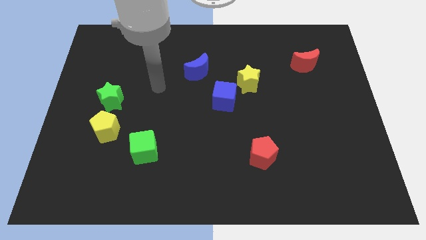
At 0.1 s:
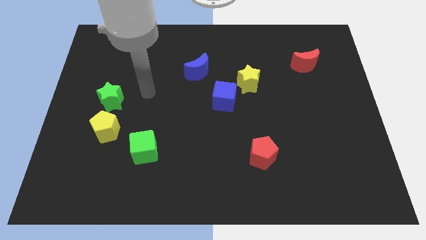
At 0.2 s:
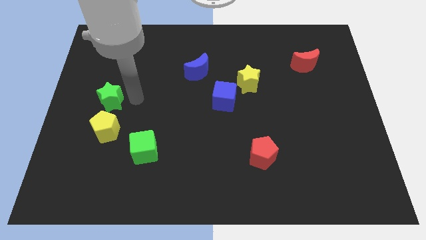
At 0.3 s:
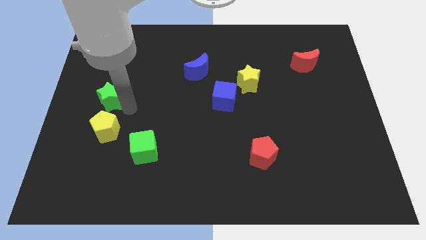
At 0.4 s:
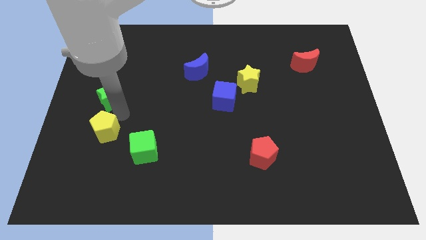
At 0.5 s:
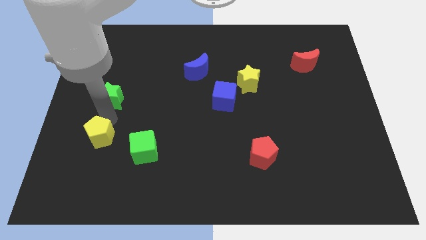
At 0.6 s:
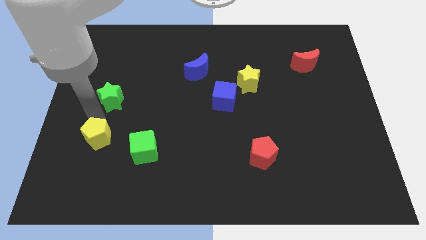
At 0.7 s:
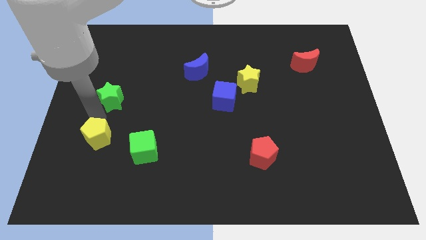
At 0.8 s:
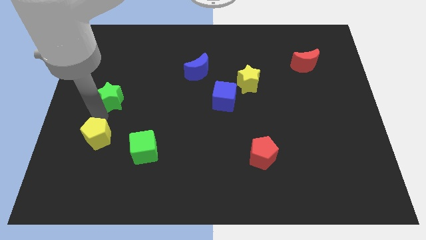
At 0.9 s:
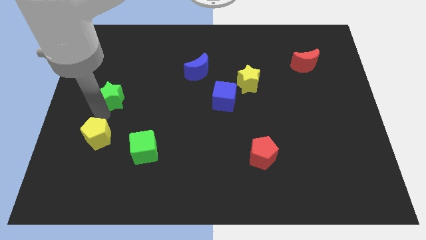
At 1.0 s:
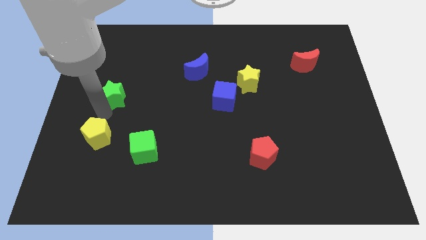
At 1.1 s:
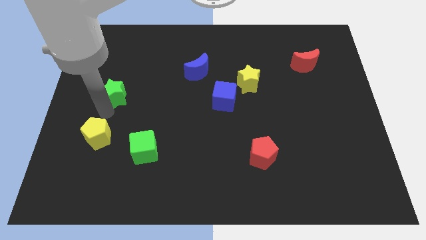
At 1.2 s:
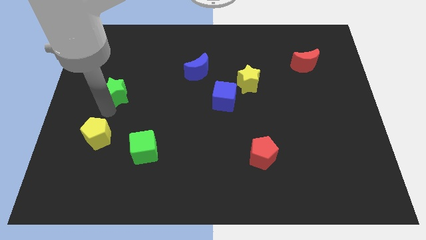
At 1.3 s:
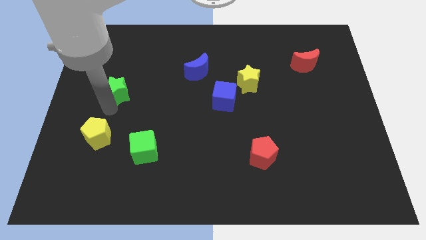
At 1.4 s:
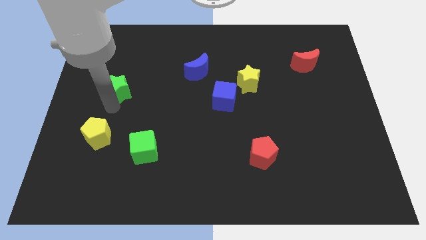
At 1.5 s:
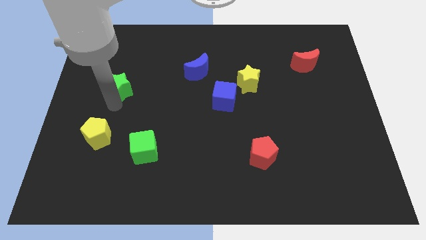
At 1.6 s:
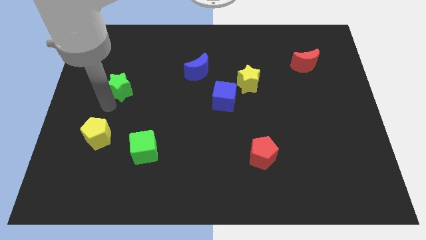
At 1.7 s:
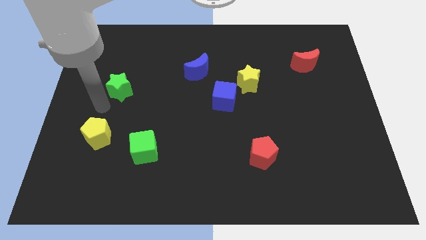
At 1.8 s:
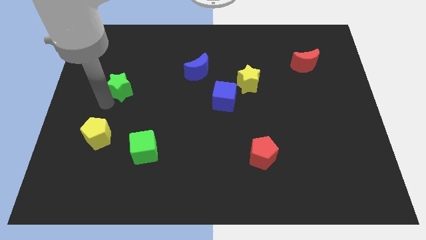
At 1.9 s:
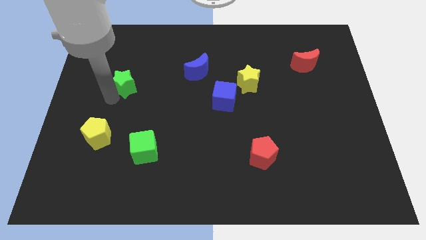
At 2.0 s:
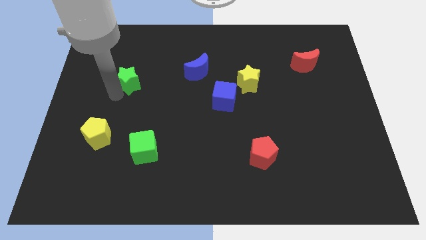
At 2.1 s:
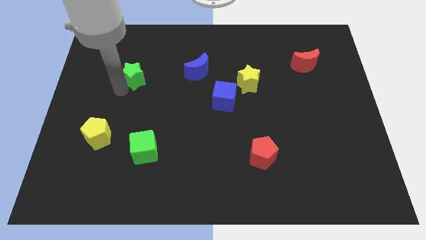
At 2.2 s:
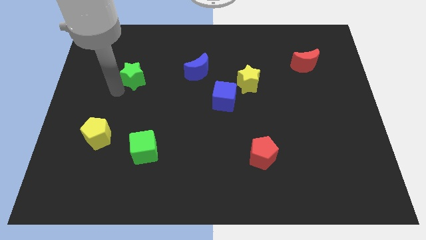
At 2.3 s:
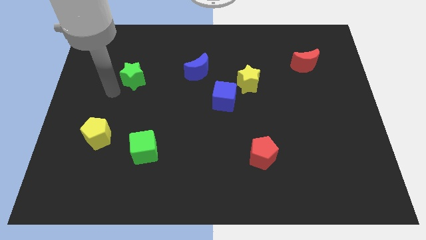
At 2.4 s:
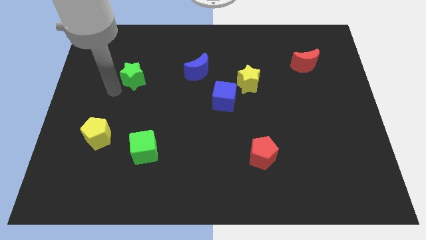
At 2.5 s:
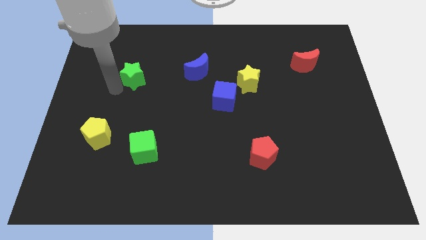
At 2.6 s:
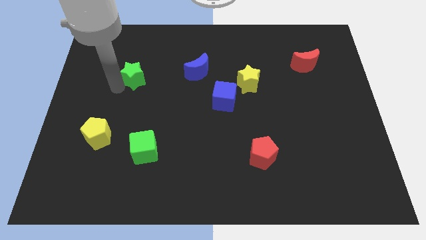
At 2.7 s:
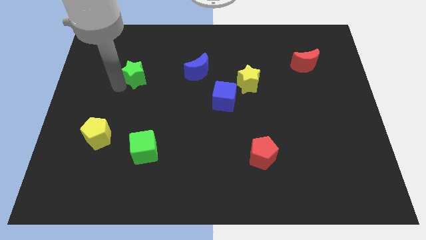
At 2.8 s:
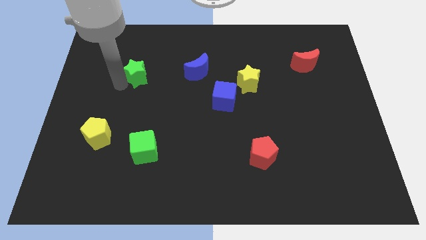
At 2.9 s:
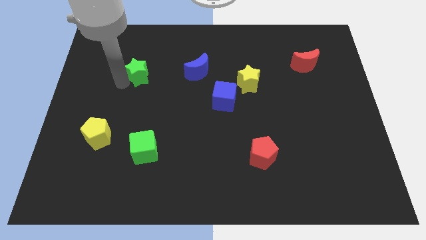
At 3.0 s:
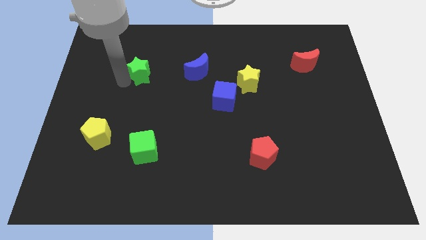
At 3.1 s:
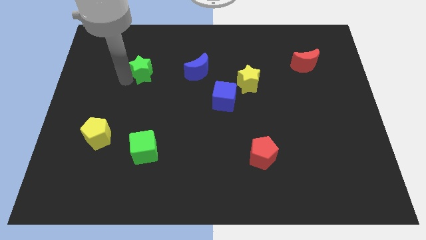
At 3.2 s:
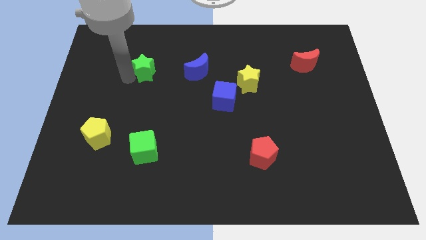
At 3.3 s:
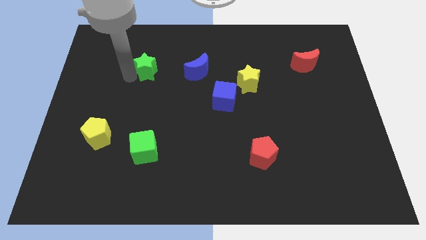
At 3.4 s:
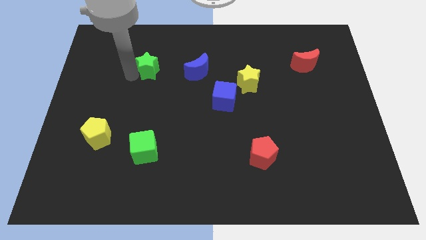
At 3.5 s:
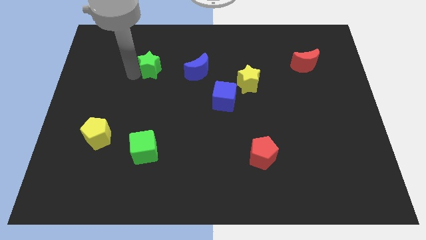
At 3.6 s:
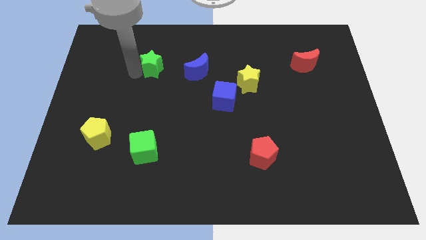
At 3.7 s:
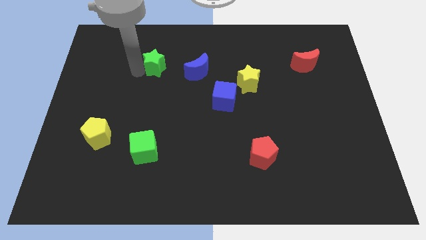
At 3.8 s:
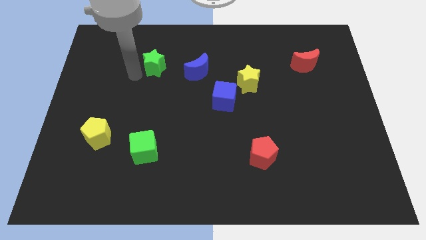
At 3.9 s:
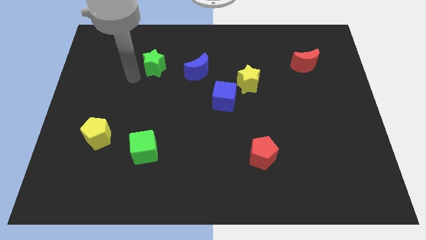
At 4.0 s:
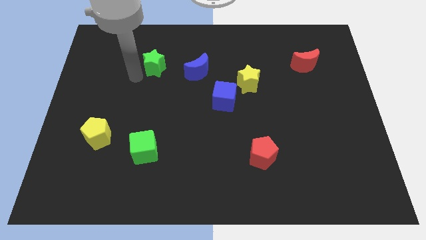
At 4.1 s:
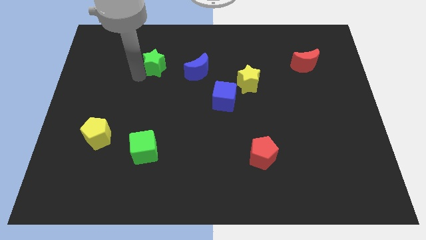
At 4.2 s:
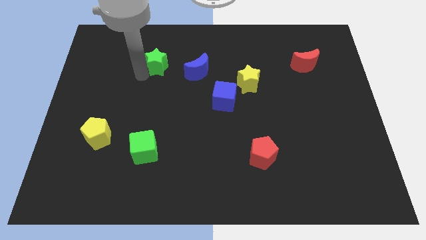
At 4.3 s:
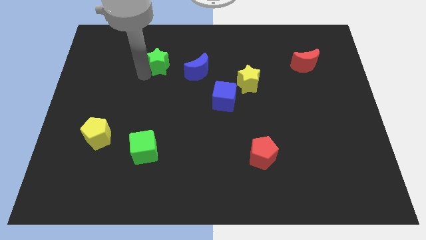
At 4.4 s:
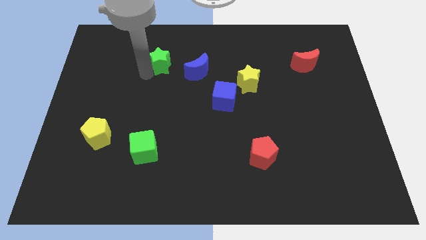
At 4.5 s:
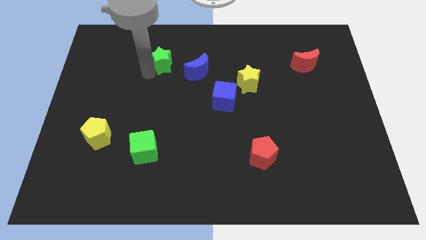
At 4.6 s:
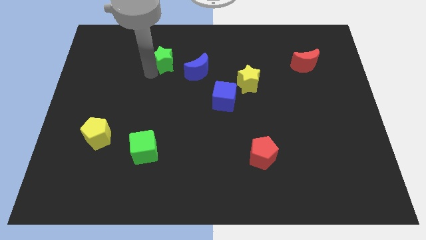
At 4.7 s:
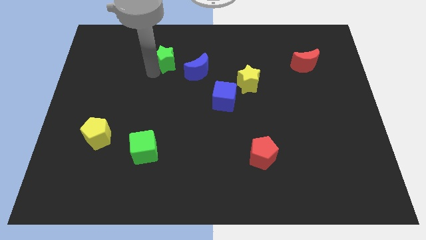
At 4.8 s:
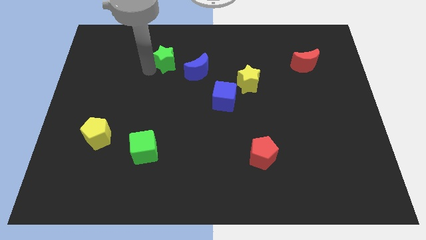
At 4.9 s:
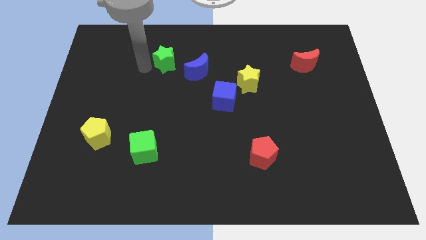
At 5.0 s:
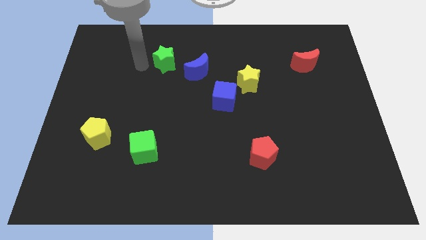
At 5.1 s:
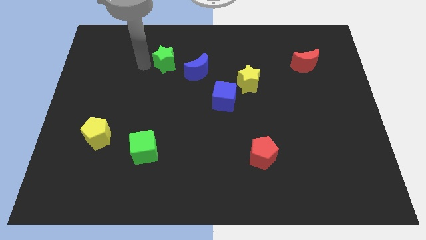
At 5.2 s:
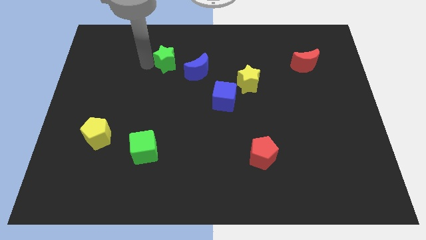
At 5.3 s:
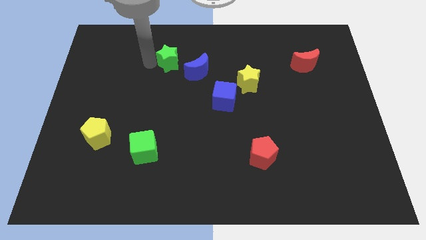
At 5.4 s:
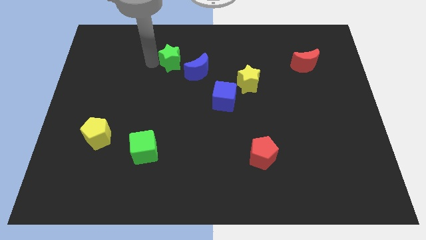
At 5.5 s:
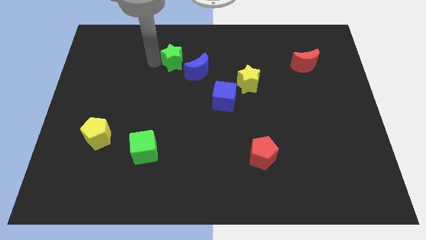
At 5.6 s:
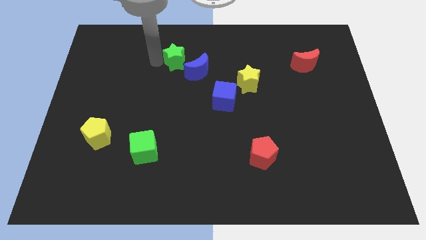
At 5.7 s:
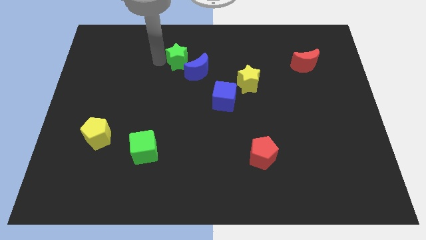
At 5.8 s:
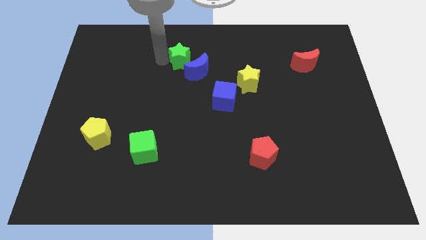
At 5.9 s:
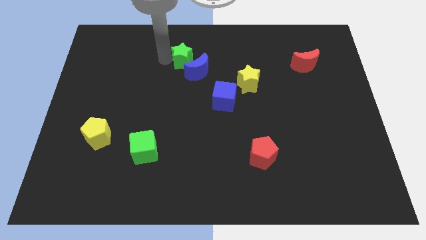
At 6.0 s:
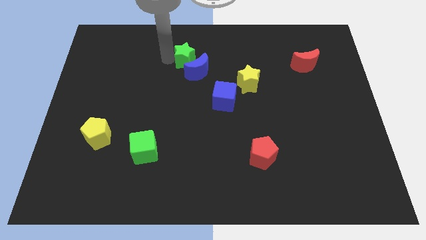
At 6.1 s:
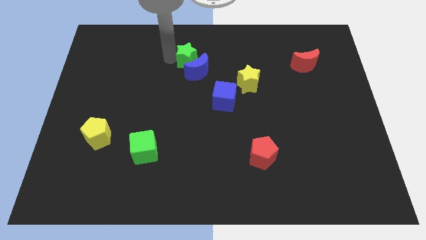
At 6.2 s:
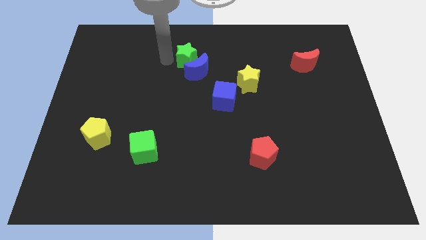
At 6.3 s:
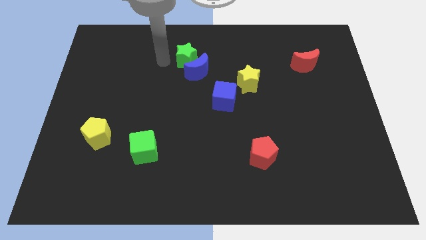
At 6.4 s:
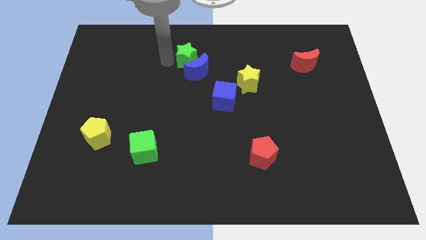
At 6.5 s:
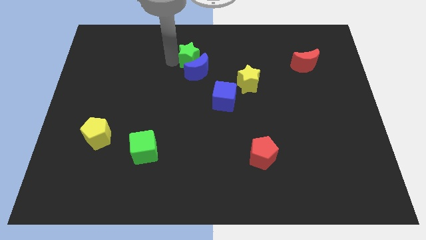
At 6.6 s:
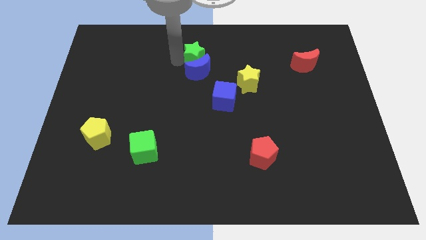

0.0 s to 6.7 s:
push the green star diagonally up and to the right of the blue moon
